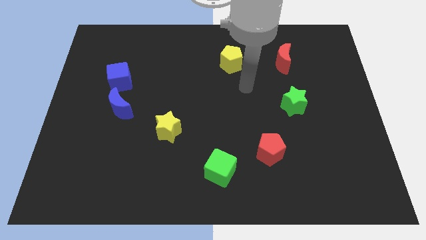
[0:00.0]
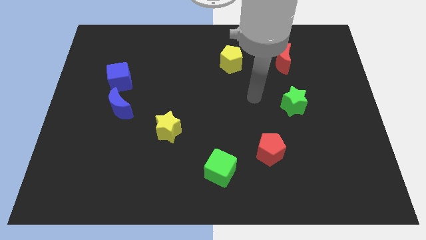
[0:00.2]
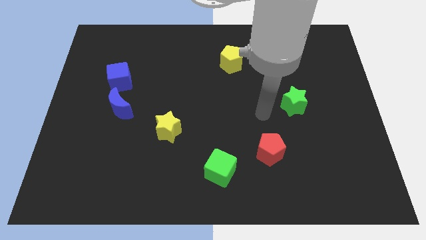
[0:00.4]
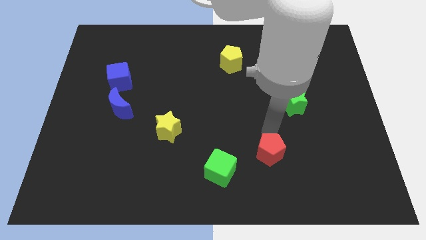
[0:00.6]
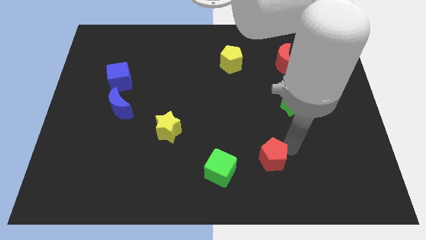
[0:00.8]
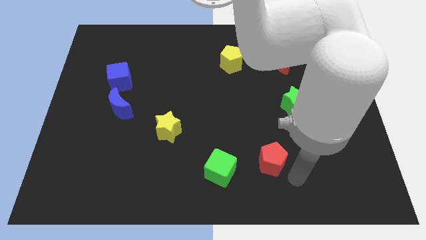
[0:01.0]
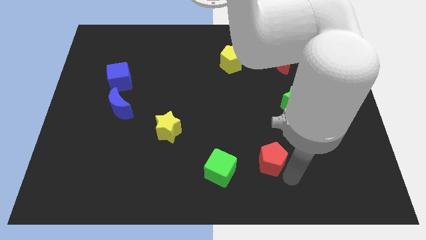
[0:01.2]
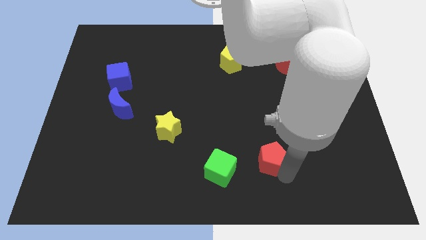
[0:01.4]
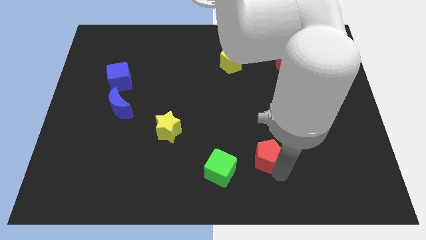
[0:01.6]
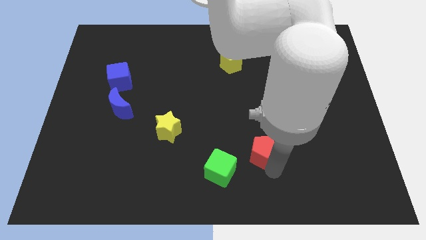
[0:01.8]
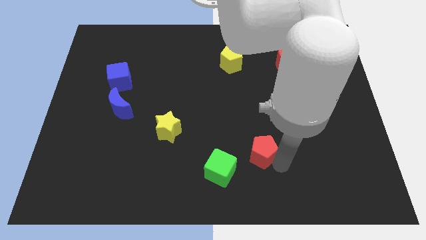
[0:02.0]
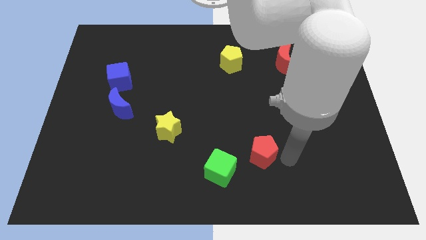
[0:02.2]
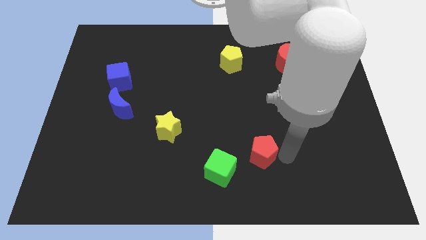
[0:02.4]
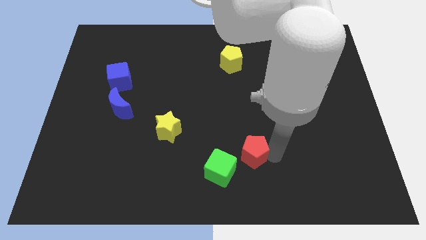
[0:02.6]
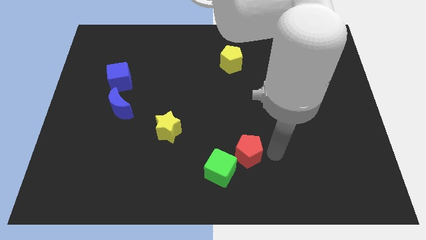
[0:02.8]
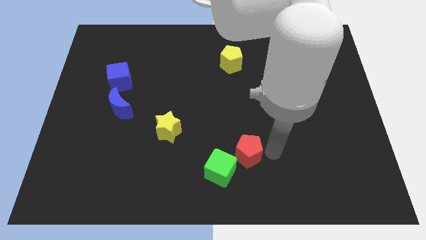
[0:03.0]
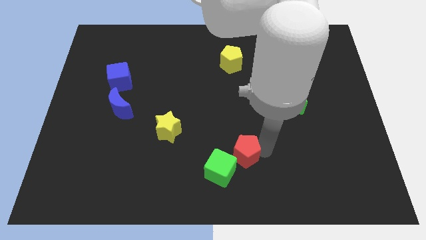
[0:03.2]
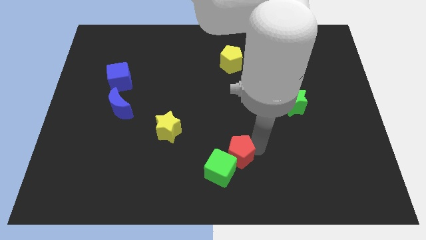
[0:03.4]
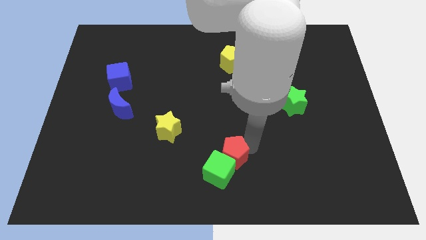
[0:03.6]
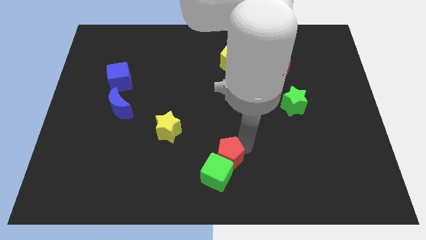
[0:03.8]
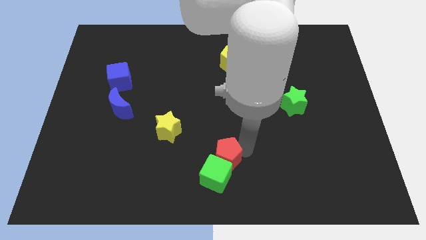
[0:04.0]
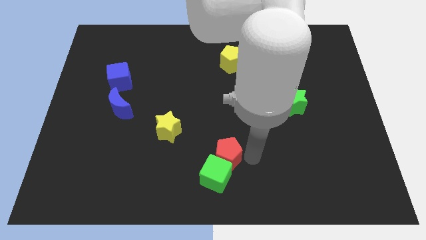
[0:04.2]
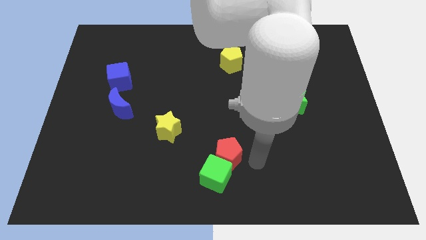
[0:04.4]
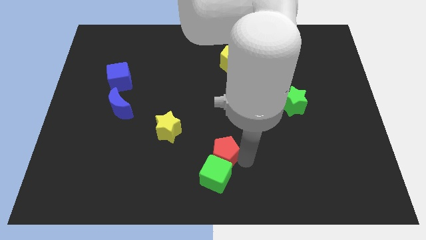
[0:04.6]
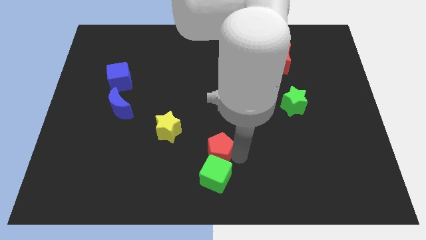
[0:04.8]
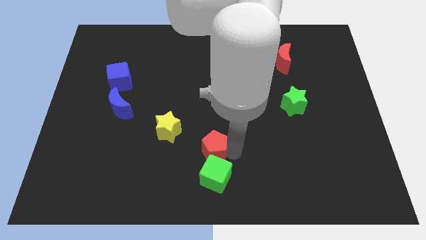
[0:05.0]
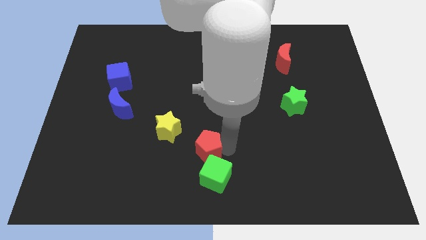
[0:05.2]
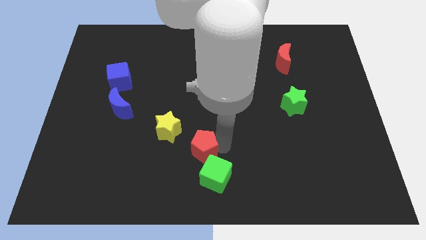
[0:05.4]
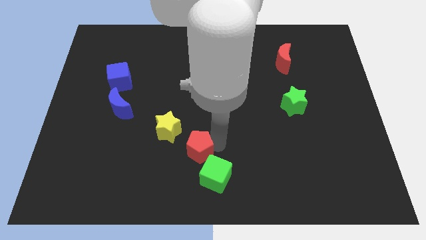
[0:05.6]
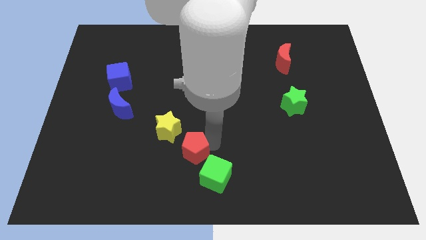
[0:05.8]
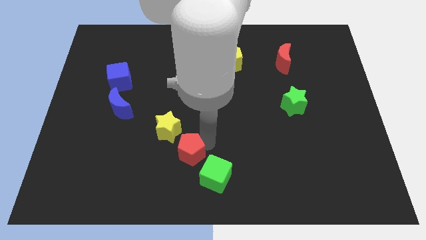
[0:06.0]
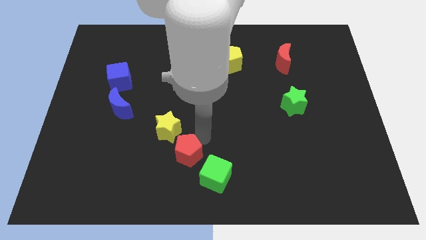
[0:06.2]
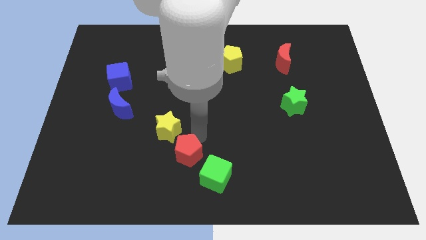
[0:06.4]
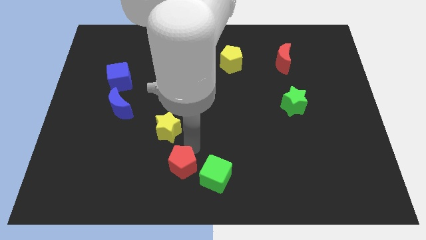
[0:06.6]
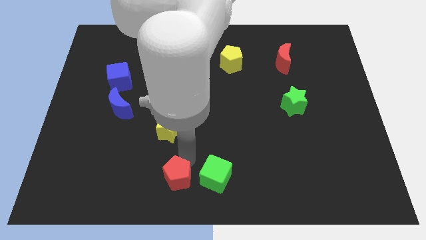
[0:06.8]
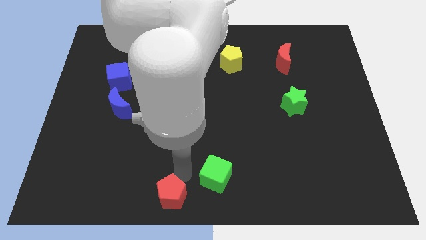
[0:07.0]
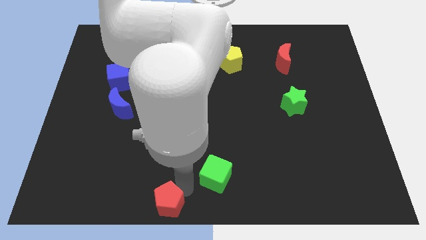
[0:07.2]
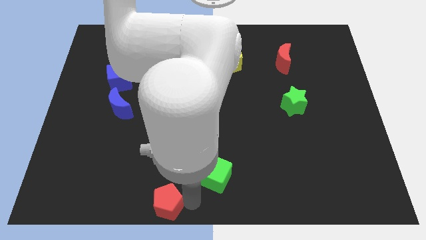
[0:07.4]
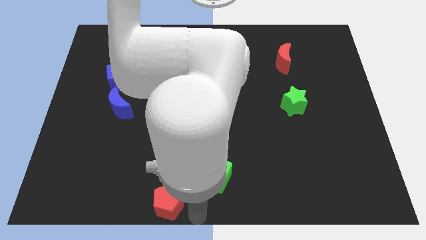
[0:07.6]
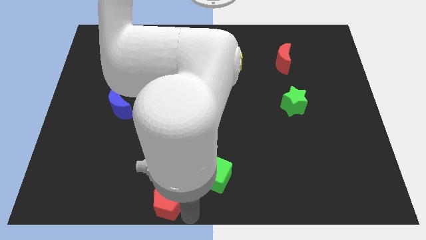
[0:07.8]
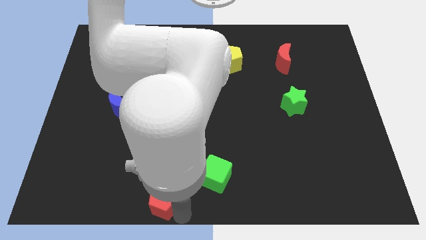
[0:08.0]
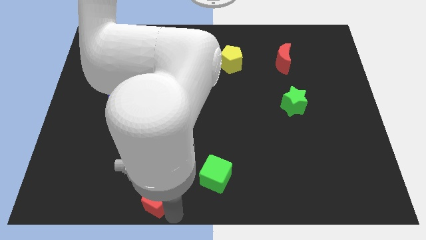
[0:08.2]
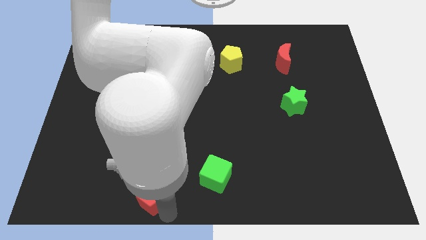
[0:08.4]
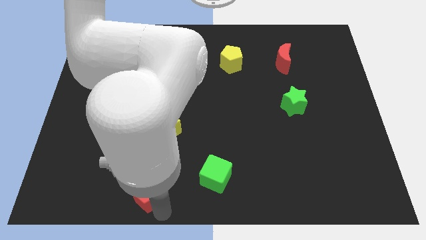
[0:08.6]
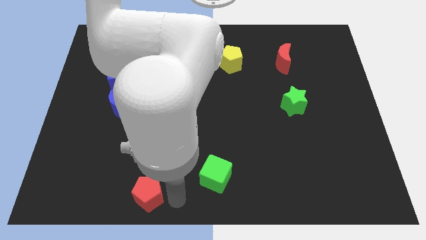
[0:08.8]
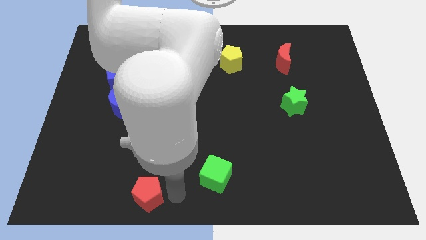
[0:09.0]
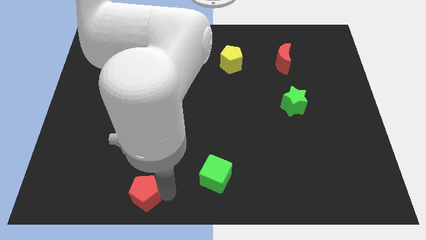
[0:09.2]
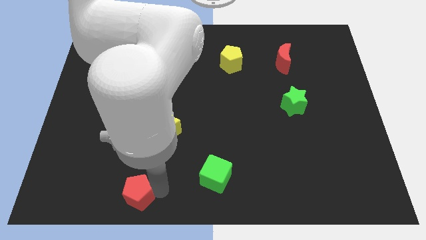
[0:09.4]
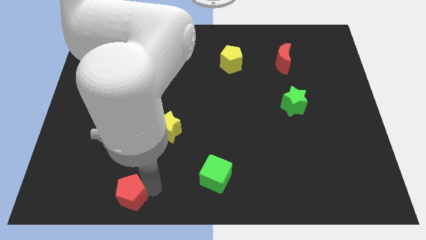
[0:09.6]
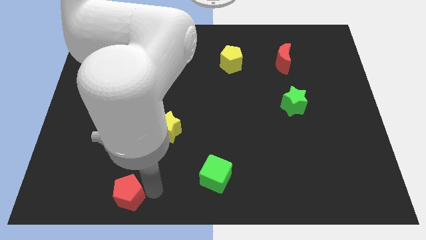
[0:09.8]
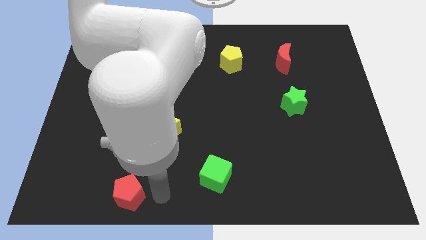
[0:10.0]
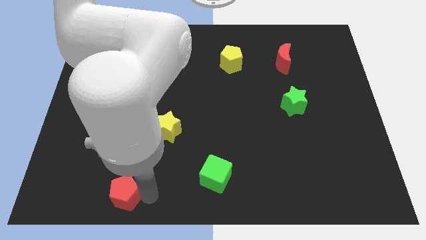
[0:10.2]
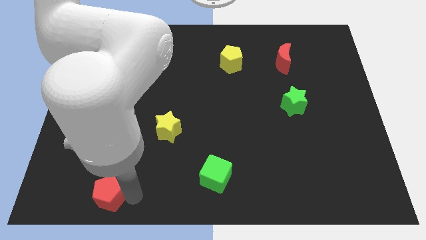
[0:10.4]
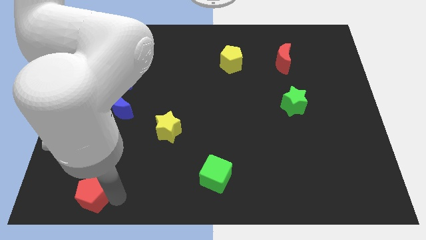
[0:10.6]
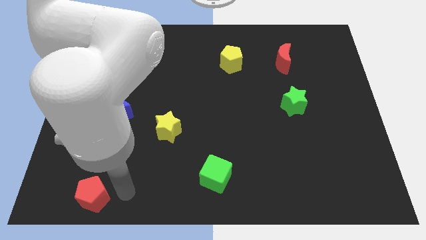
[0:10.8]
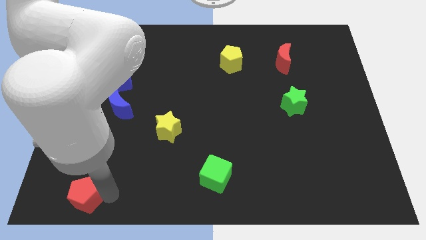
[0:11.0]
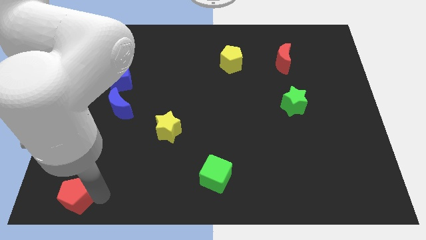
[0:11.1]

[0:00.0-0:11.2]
slide the red pentagon to the bottom left of the board

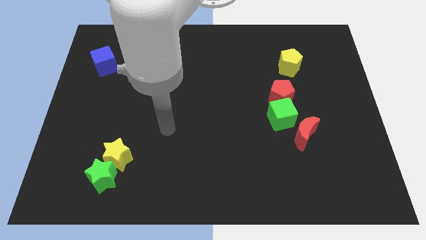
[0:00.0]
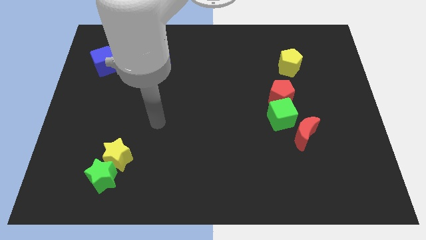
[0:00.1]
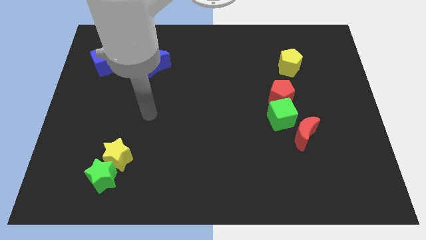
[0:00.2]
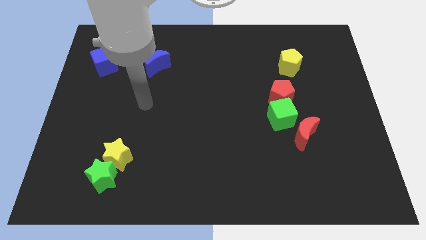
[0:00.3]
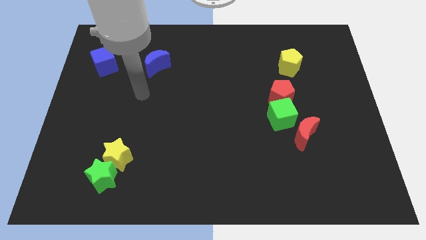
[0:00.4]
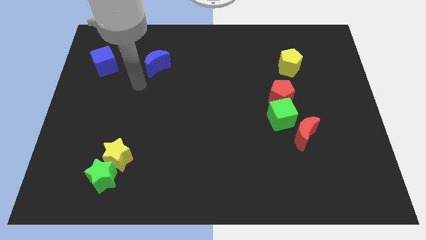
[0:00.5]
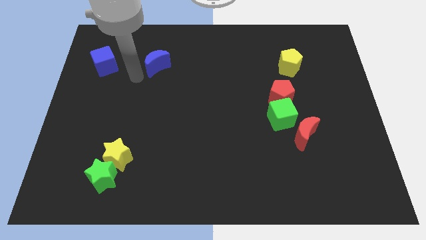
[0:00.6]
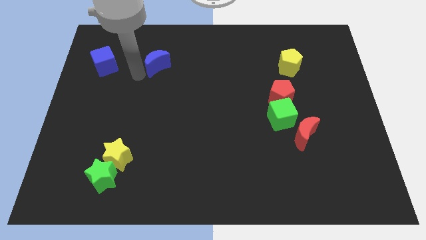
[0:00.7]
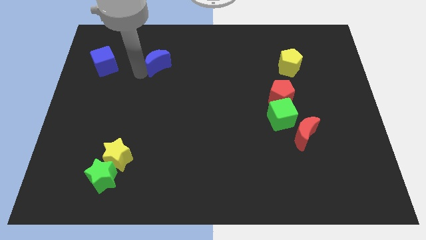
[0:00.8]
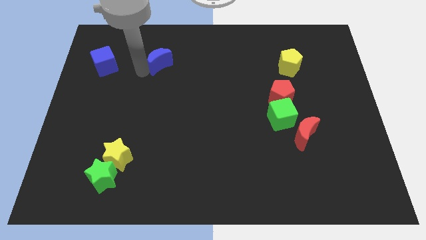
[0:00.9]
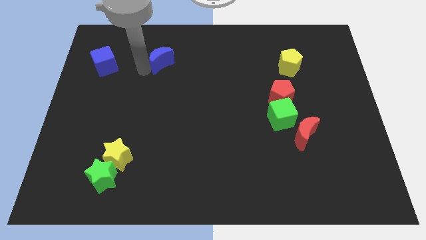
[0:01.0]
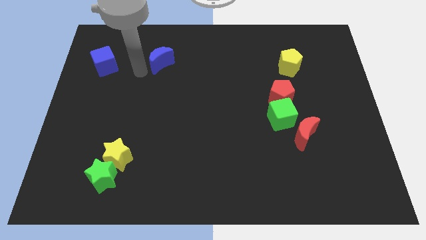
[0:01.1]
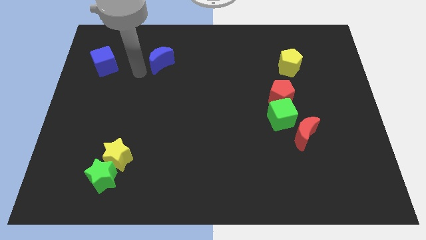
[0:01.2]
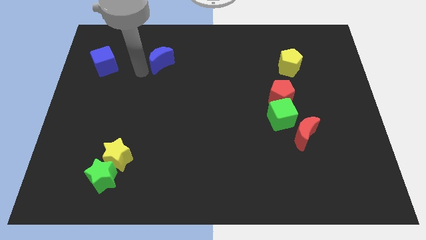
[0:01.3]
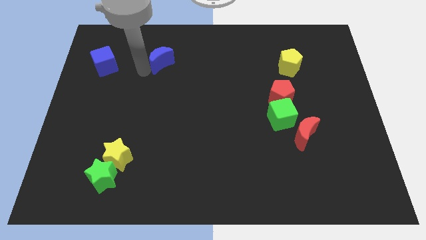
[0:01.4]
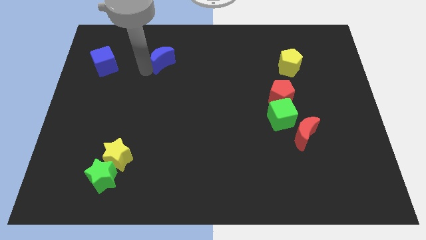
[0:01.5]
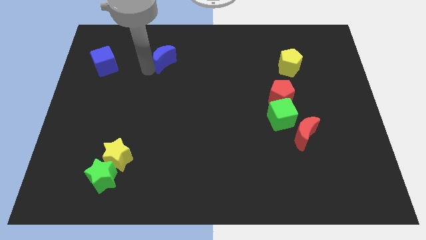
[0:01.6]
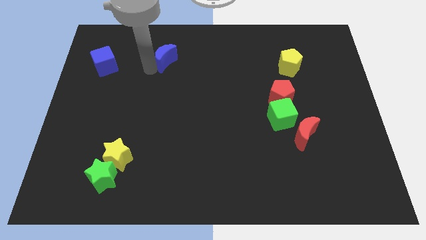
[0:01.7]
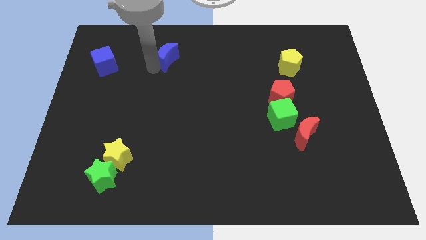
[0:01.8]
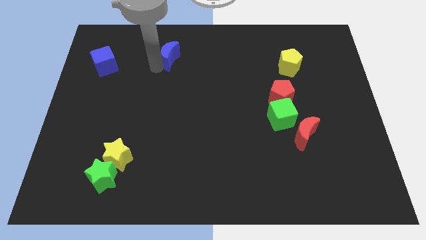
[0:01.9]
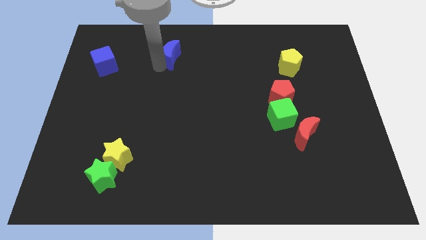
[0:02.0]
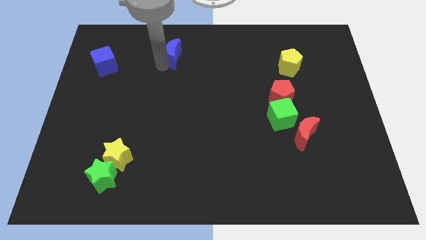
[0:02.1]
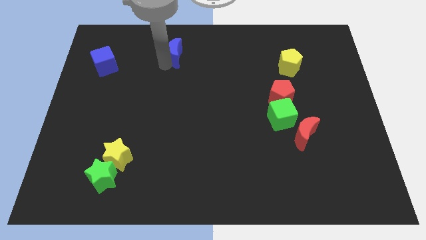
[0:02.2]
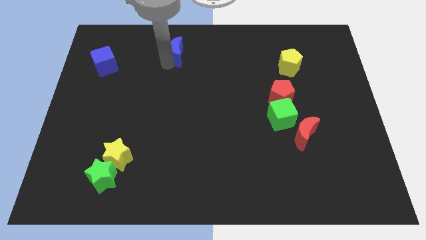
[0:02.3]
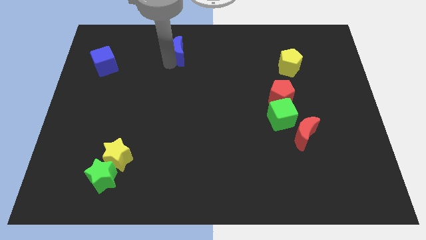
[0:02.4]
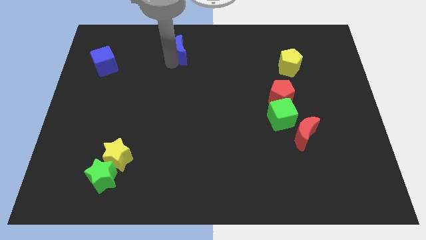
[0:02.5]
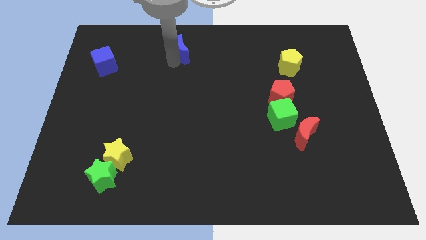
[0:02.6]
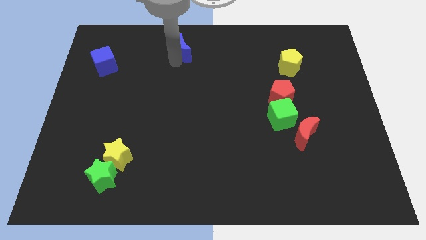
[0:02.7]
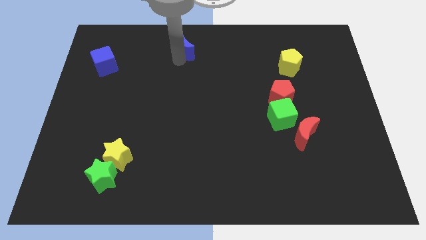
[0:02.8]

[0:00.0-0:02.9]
slide the blue moon to the top
